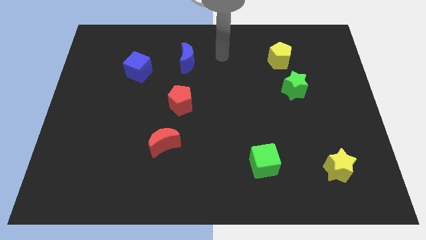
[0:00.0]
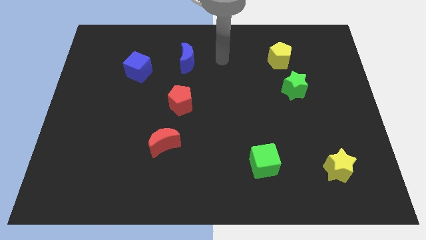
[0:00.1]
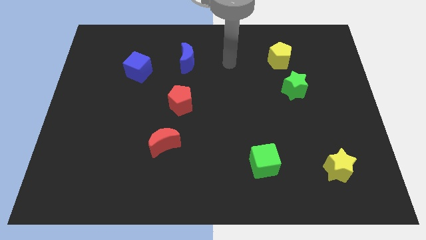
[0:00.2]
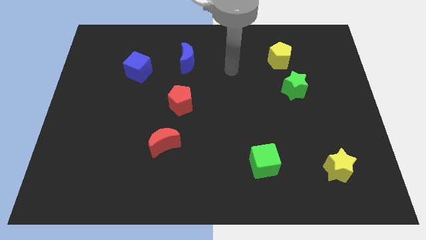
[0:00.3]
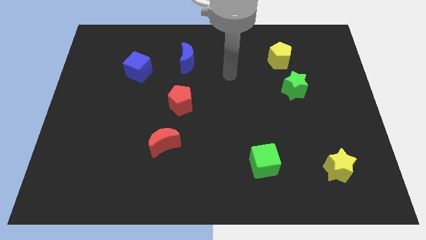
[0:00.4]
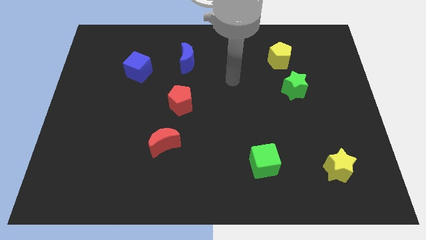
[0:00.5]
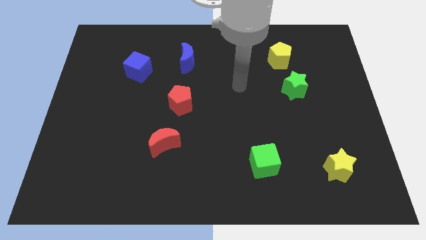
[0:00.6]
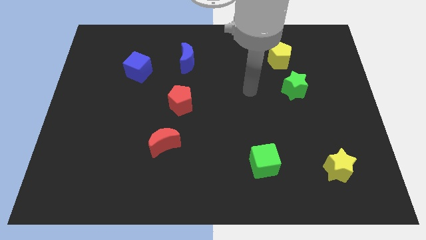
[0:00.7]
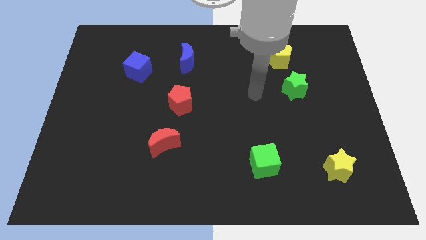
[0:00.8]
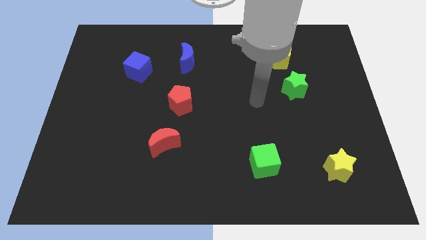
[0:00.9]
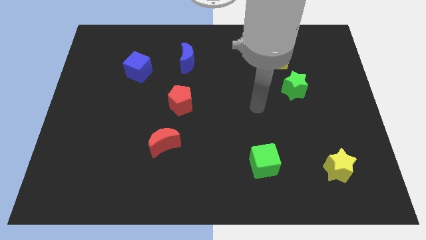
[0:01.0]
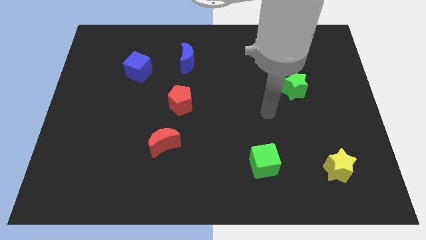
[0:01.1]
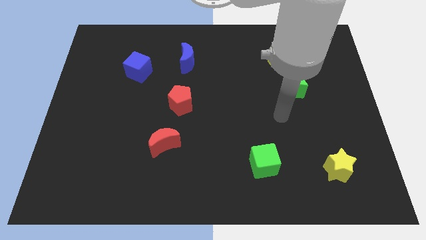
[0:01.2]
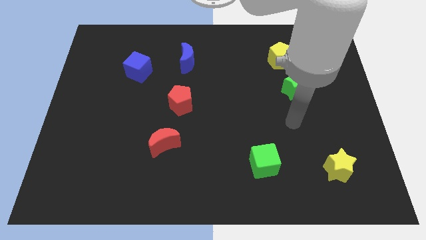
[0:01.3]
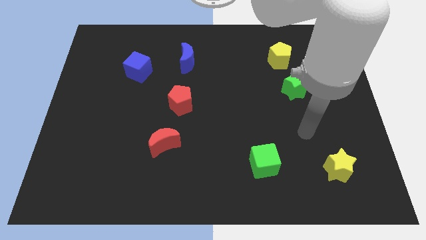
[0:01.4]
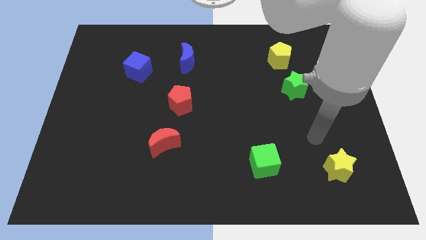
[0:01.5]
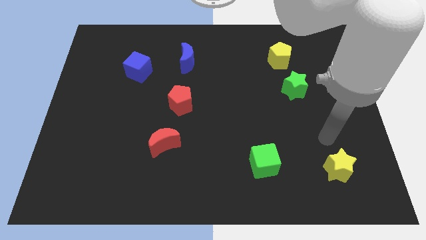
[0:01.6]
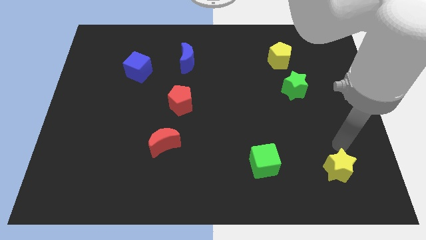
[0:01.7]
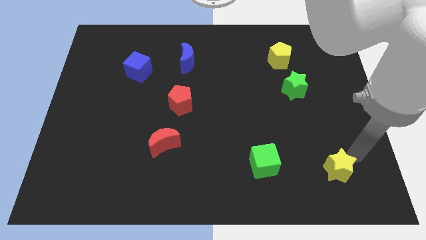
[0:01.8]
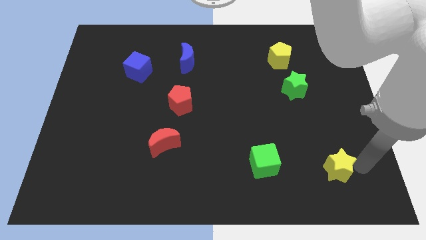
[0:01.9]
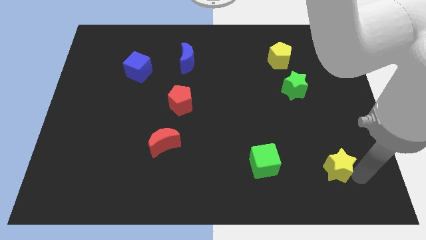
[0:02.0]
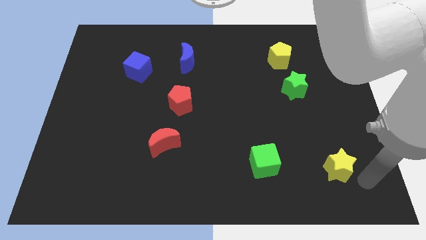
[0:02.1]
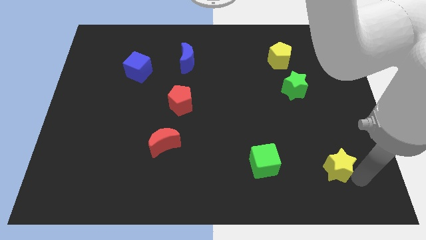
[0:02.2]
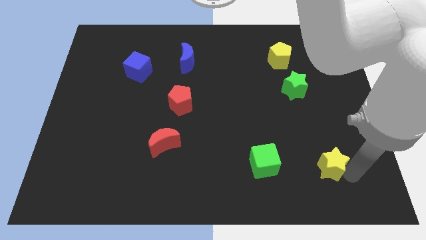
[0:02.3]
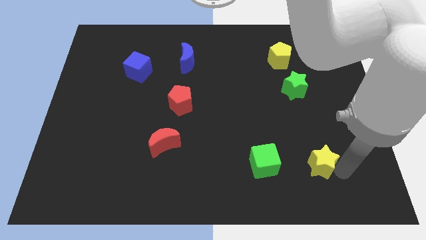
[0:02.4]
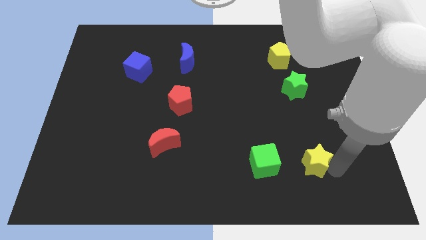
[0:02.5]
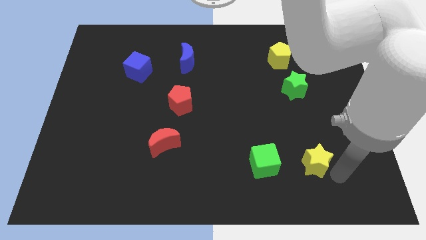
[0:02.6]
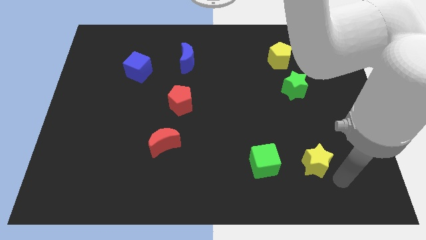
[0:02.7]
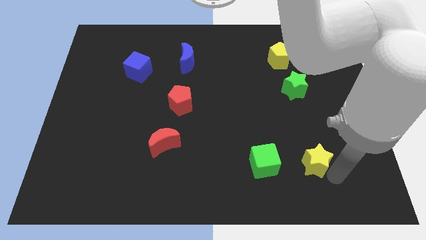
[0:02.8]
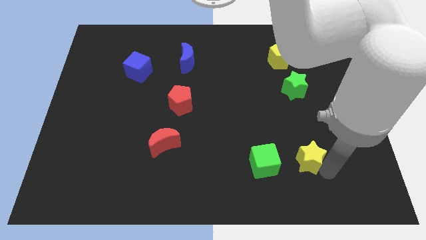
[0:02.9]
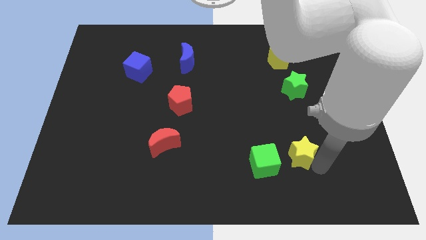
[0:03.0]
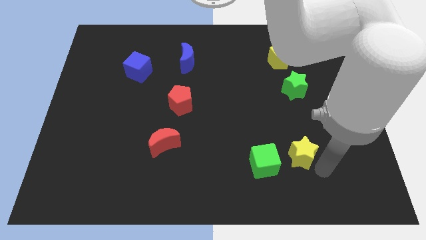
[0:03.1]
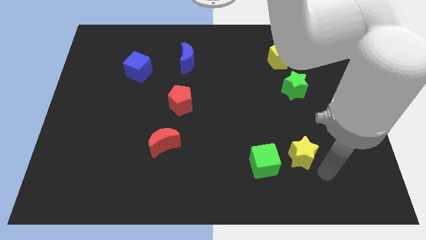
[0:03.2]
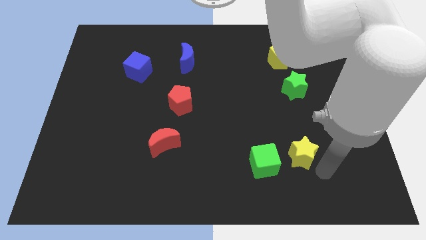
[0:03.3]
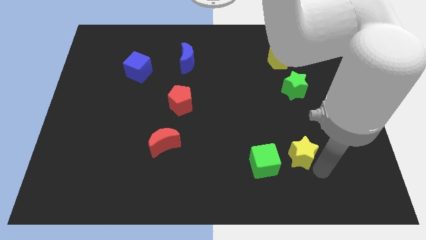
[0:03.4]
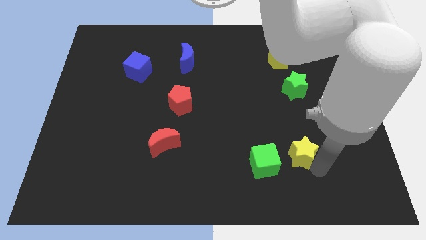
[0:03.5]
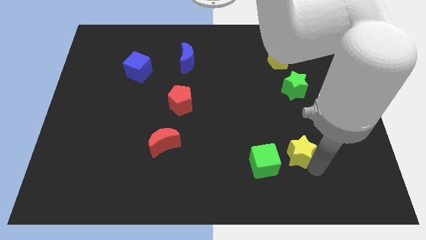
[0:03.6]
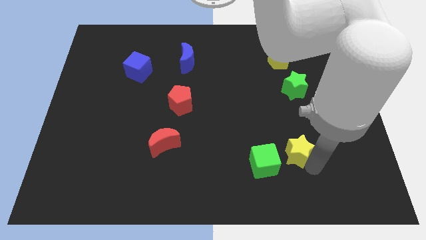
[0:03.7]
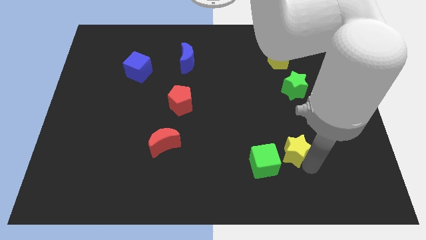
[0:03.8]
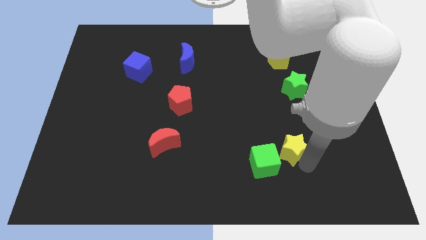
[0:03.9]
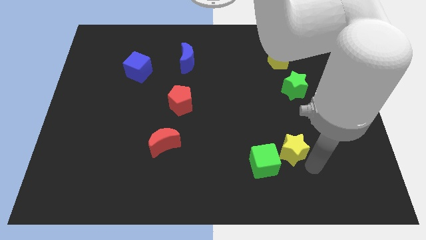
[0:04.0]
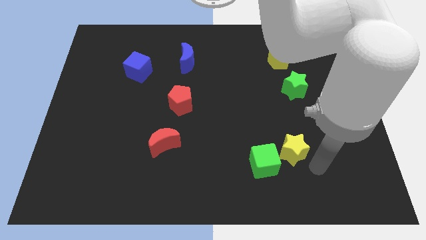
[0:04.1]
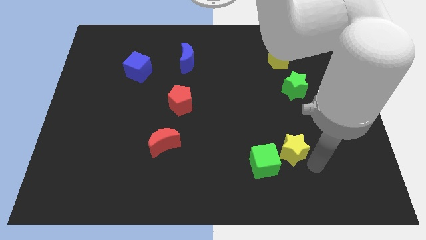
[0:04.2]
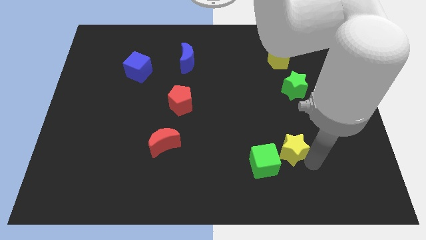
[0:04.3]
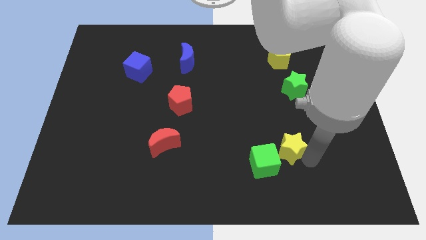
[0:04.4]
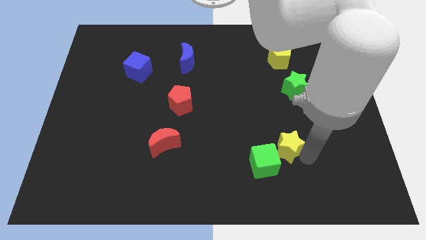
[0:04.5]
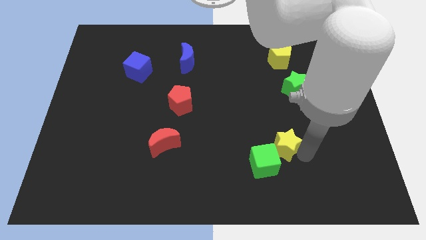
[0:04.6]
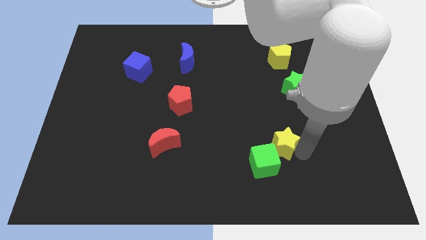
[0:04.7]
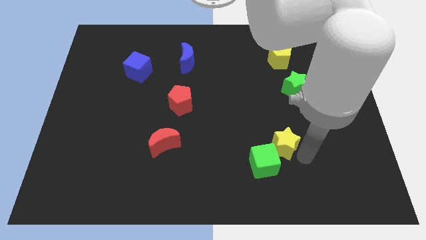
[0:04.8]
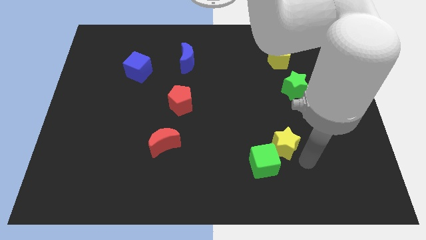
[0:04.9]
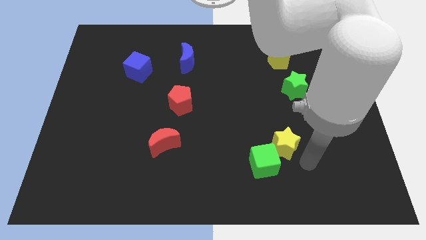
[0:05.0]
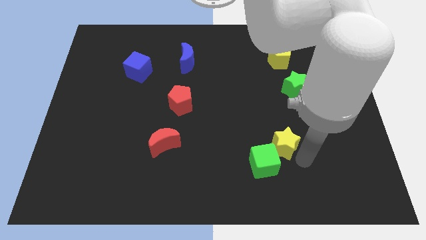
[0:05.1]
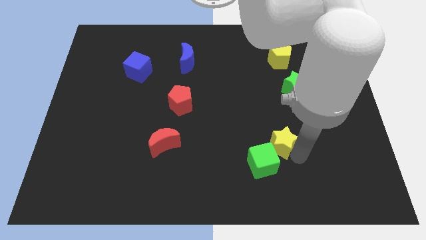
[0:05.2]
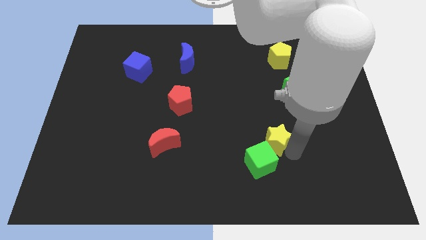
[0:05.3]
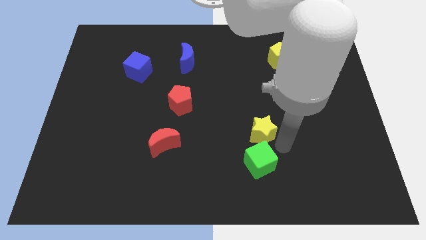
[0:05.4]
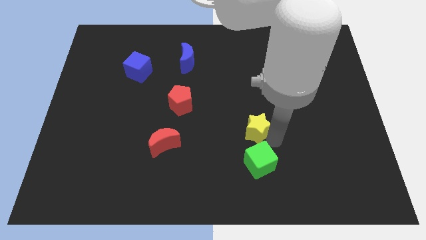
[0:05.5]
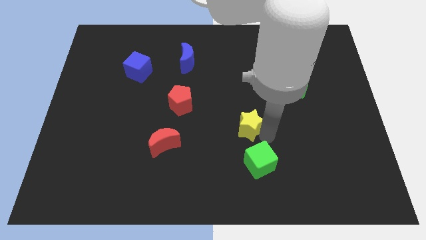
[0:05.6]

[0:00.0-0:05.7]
slide the yellow star to the center of the board
